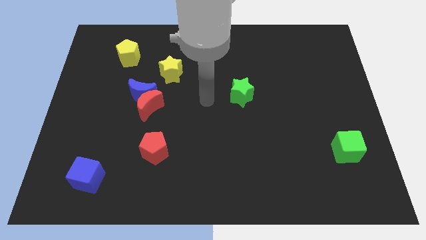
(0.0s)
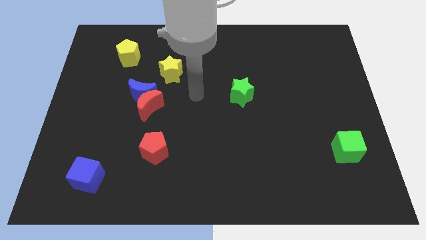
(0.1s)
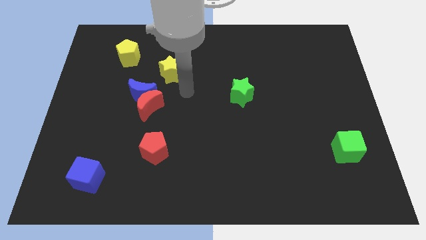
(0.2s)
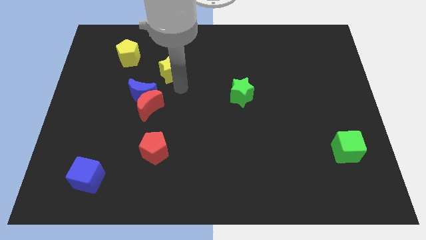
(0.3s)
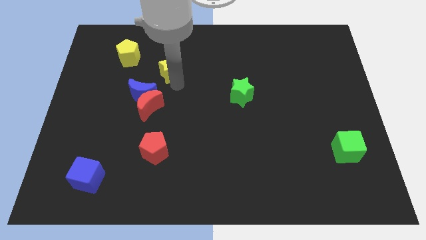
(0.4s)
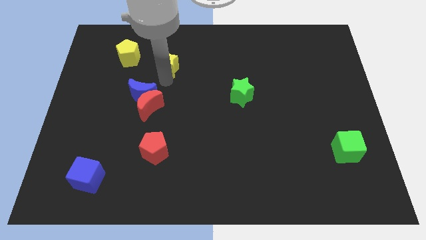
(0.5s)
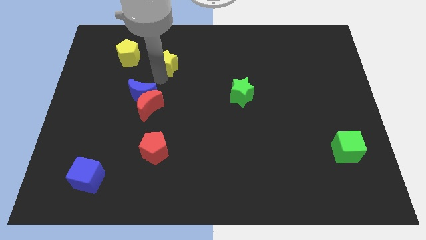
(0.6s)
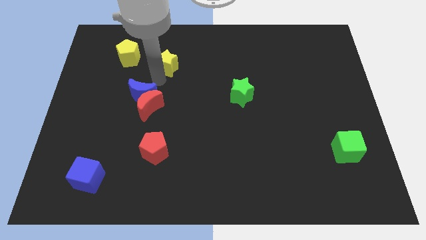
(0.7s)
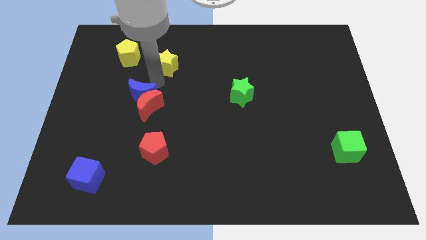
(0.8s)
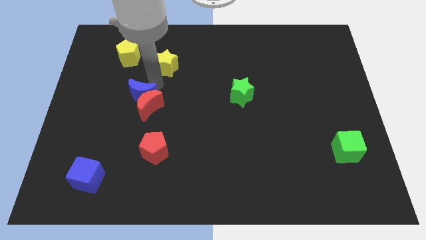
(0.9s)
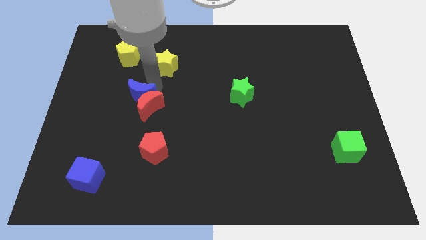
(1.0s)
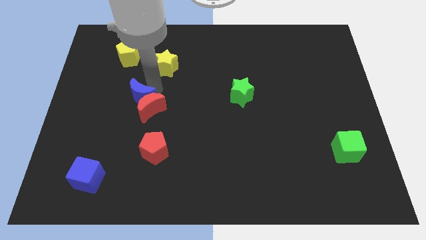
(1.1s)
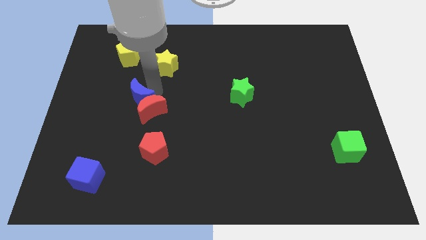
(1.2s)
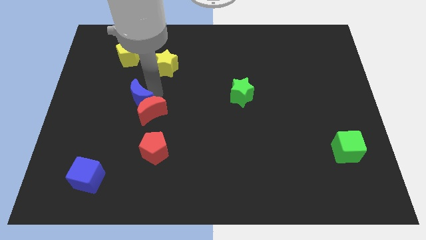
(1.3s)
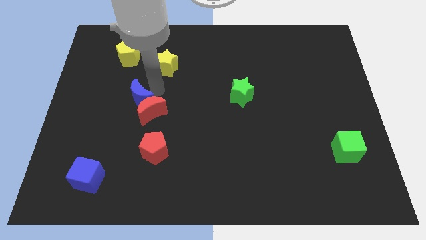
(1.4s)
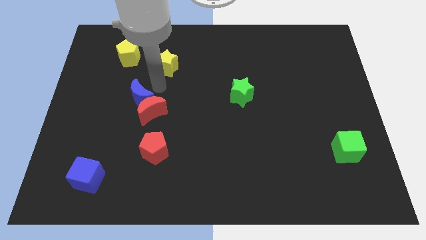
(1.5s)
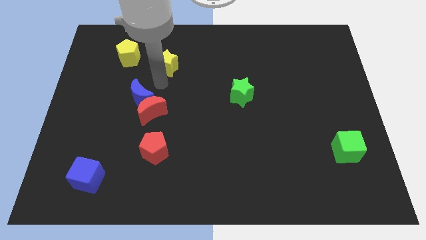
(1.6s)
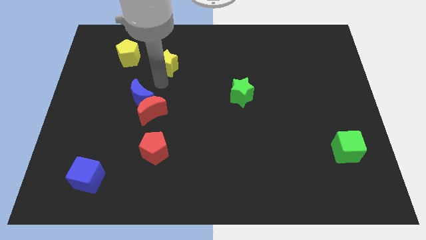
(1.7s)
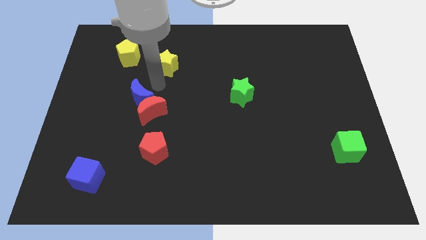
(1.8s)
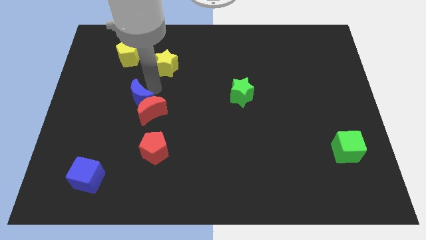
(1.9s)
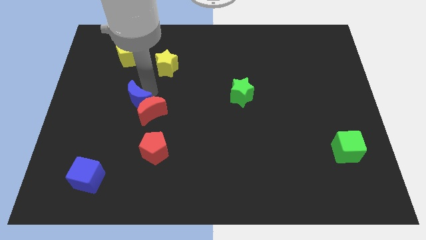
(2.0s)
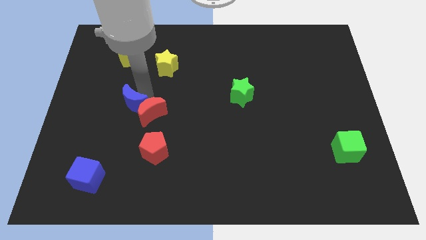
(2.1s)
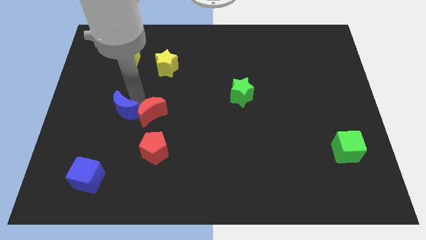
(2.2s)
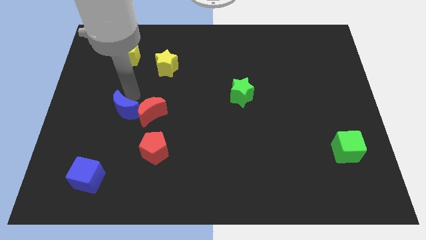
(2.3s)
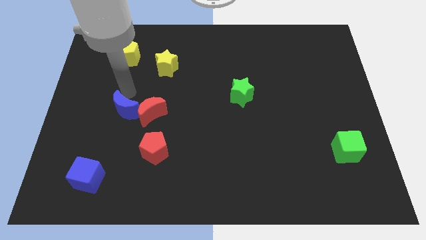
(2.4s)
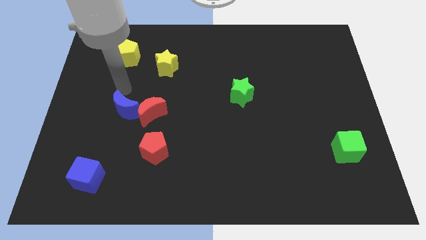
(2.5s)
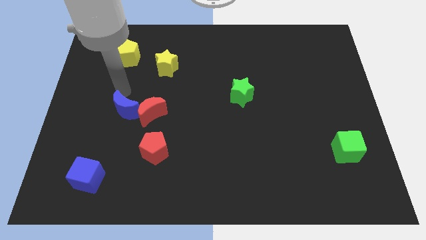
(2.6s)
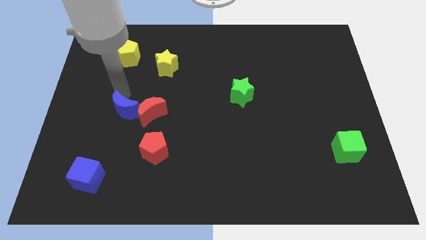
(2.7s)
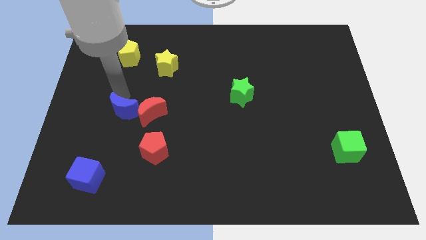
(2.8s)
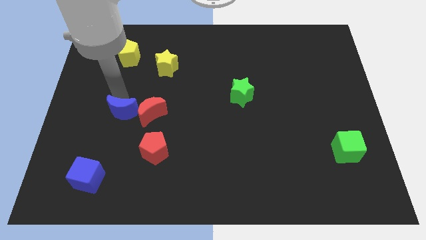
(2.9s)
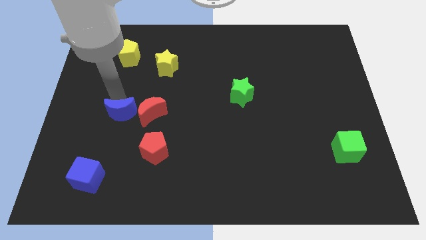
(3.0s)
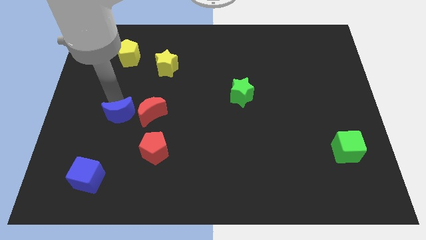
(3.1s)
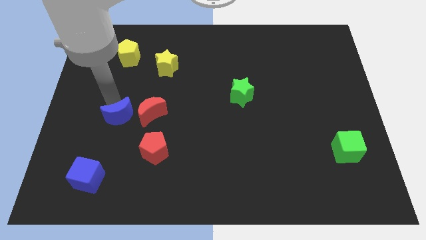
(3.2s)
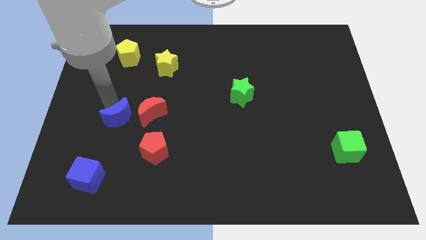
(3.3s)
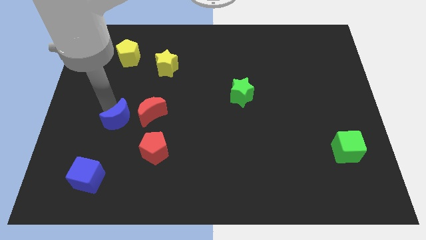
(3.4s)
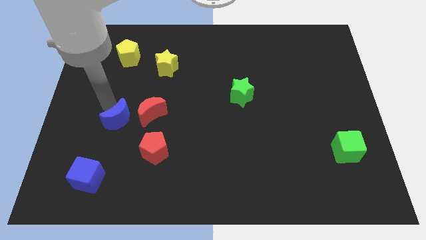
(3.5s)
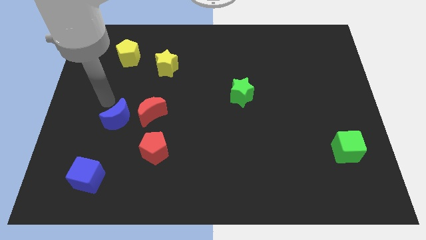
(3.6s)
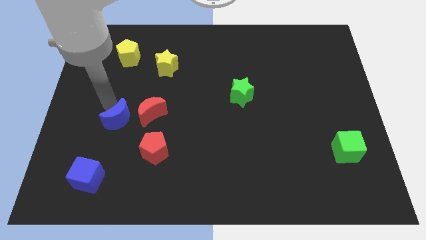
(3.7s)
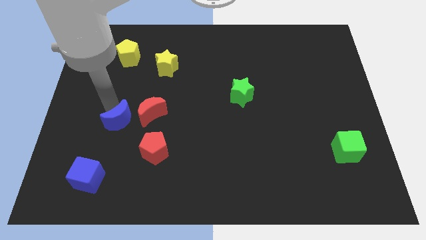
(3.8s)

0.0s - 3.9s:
slightly move the blue moon downwards

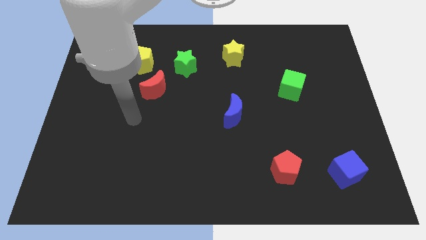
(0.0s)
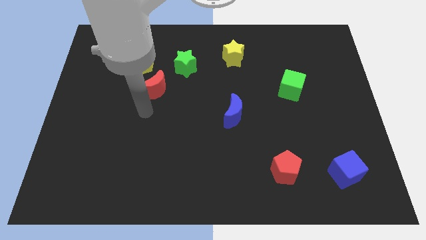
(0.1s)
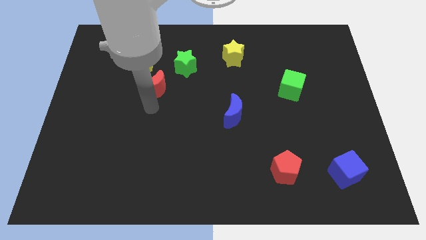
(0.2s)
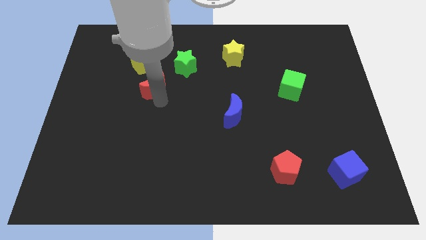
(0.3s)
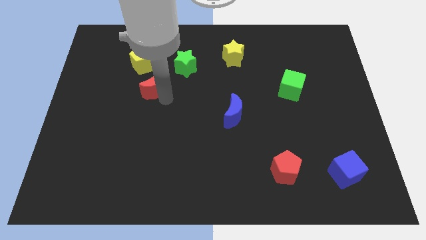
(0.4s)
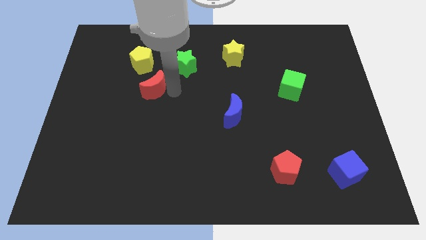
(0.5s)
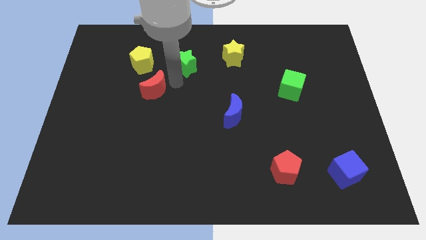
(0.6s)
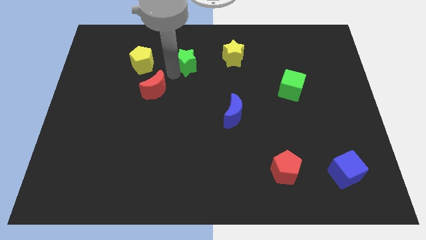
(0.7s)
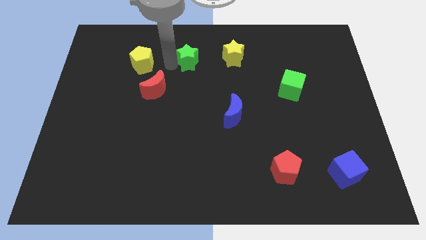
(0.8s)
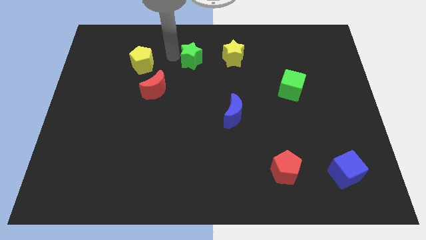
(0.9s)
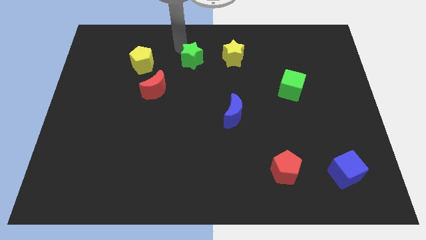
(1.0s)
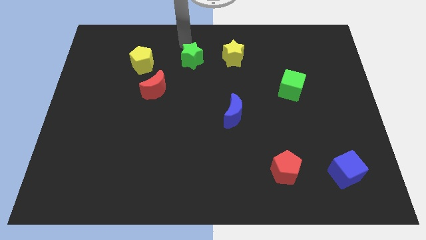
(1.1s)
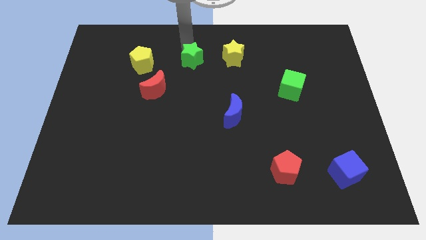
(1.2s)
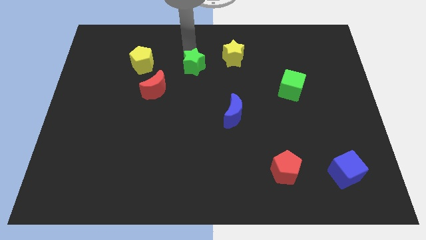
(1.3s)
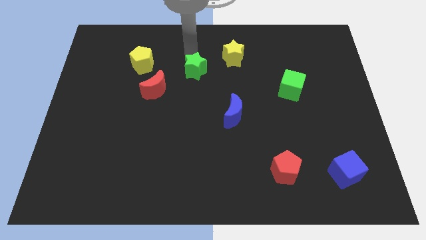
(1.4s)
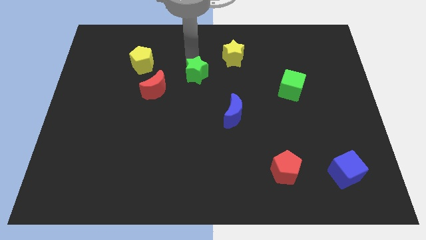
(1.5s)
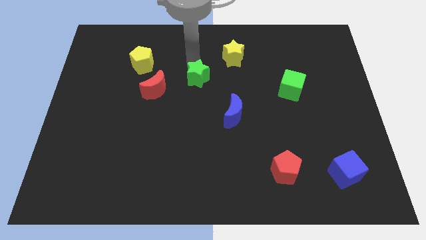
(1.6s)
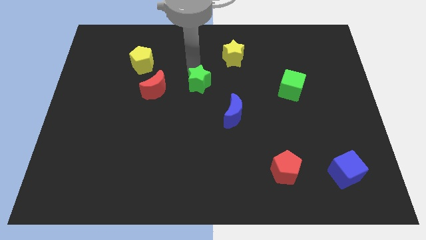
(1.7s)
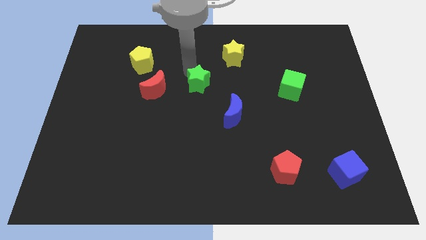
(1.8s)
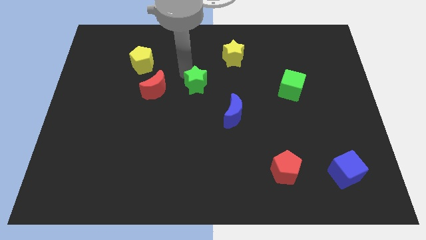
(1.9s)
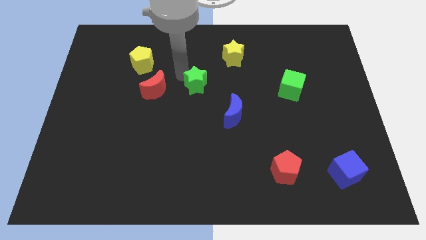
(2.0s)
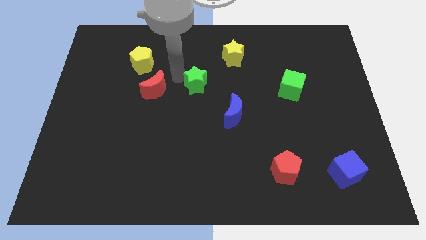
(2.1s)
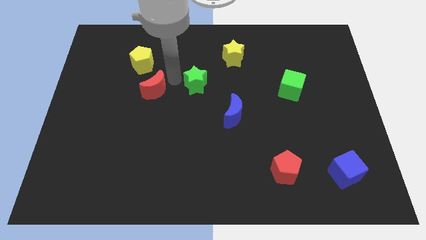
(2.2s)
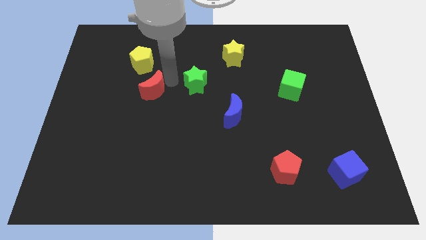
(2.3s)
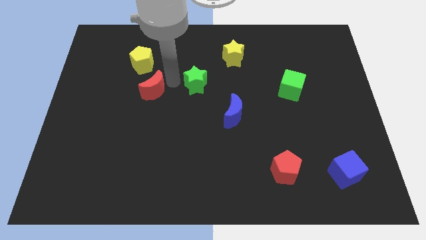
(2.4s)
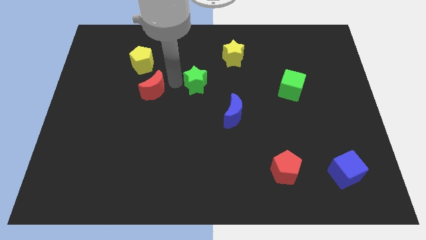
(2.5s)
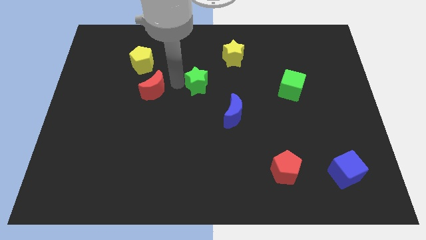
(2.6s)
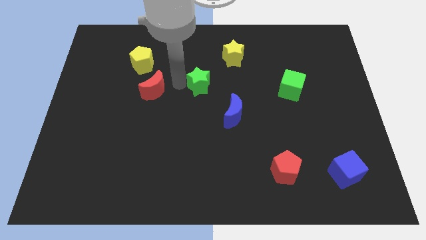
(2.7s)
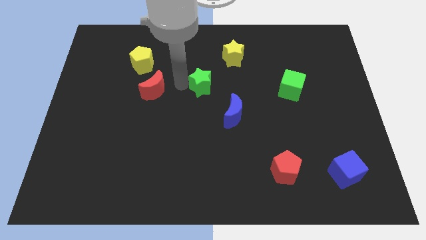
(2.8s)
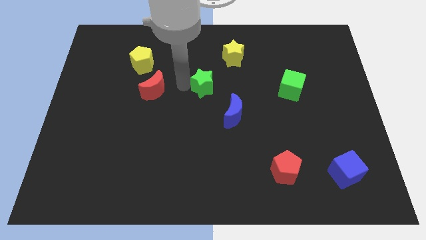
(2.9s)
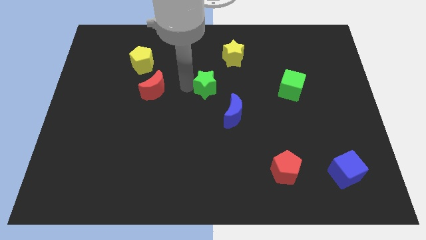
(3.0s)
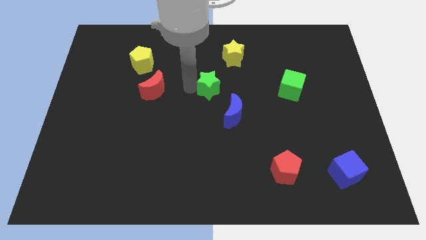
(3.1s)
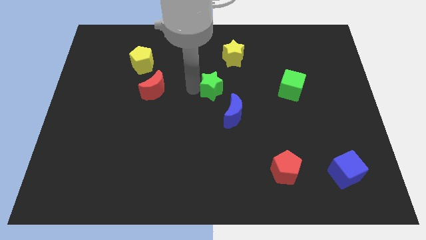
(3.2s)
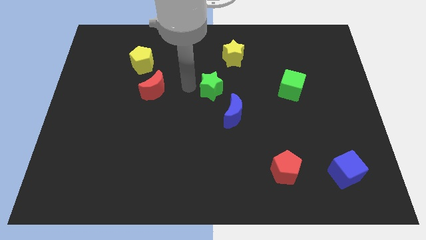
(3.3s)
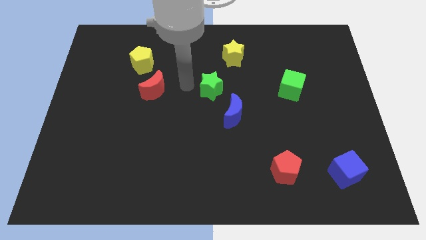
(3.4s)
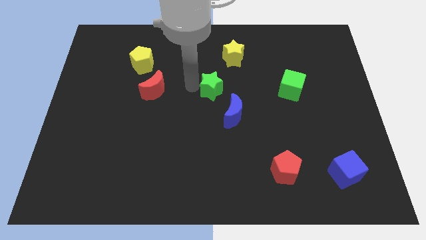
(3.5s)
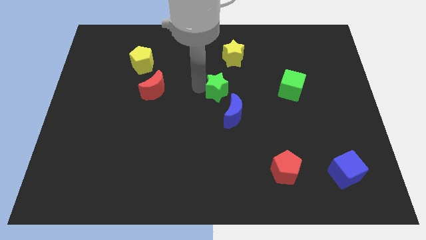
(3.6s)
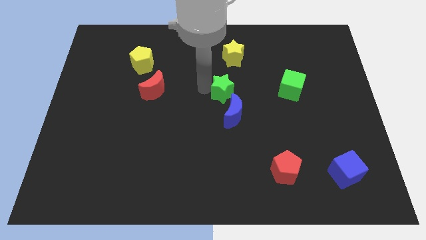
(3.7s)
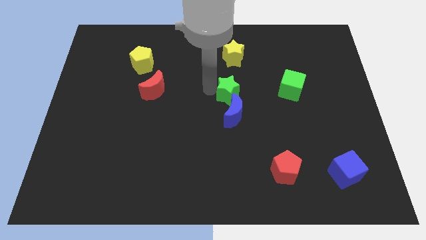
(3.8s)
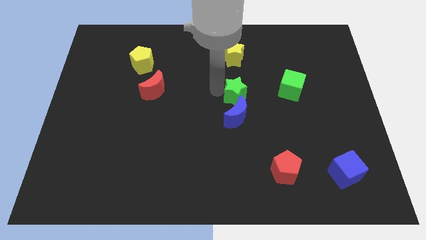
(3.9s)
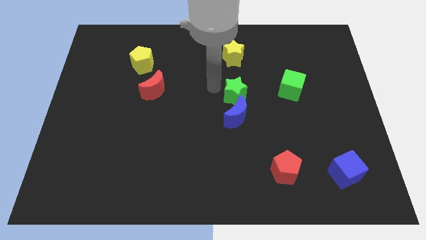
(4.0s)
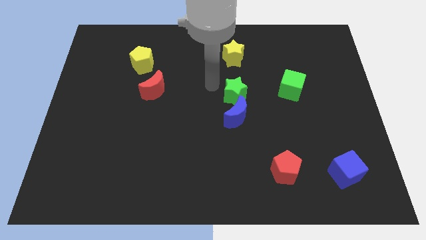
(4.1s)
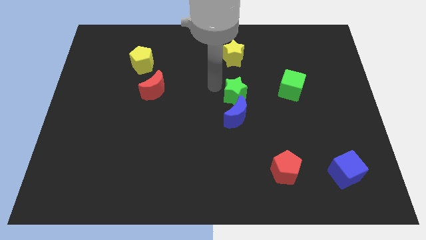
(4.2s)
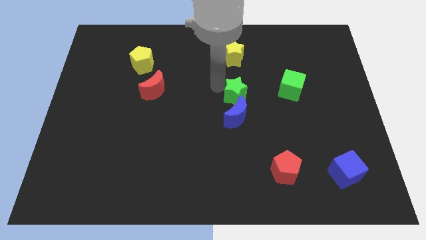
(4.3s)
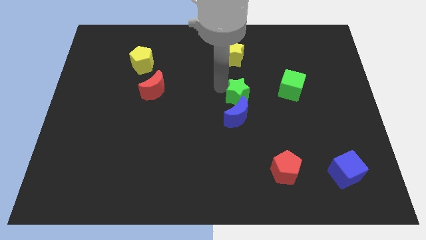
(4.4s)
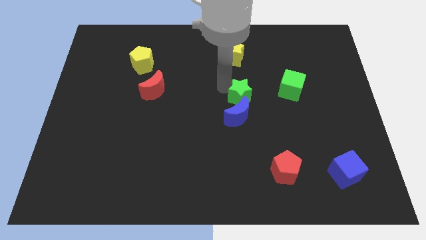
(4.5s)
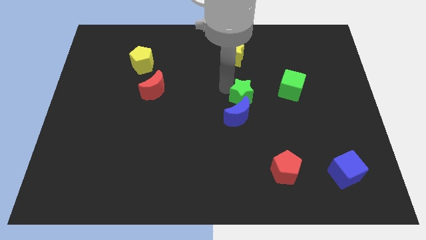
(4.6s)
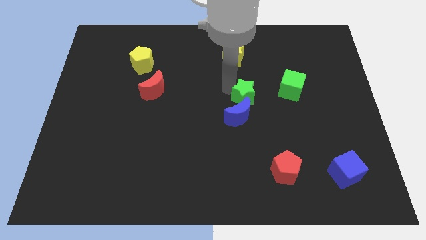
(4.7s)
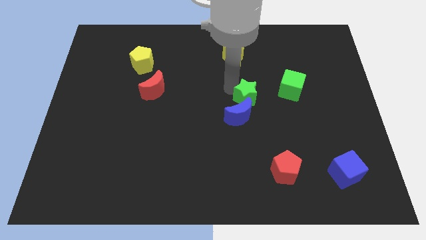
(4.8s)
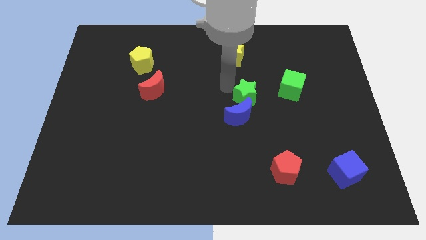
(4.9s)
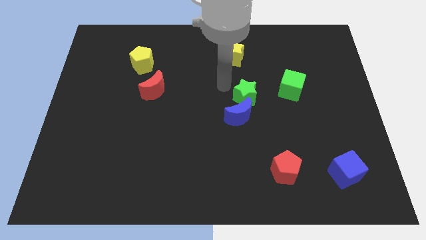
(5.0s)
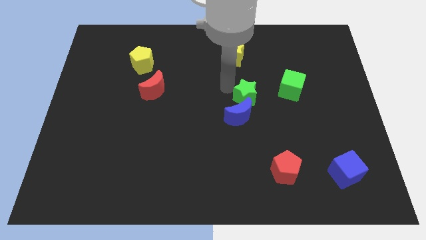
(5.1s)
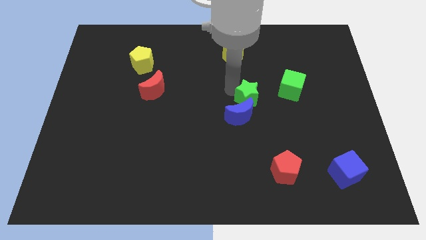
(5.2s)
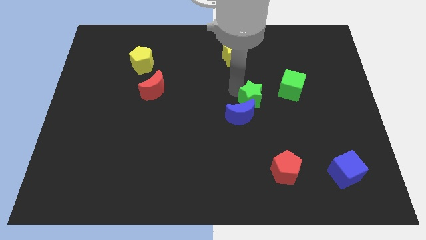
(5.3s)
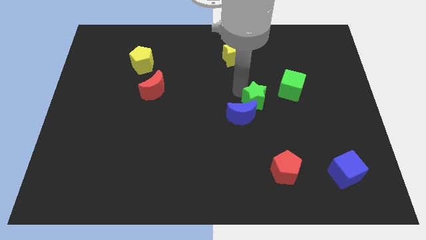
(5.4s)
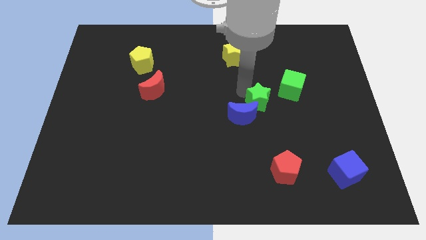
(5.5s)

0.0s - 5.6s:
move the green star downwards and to the right diagonally
